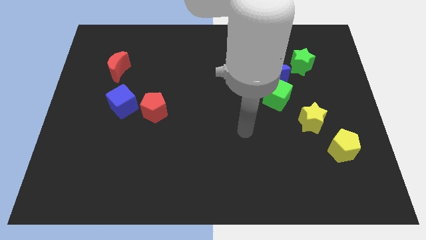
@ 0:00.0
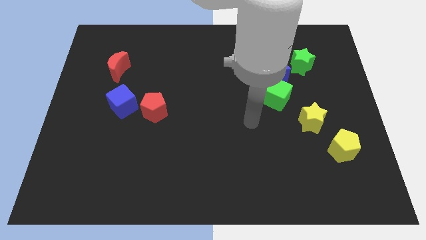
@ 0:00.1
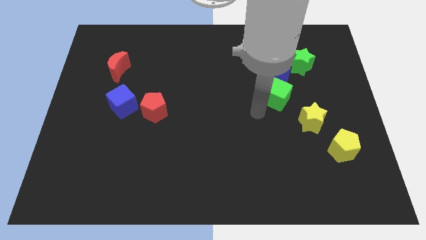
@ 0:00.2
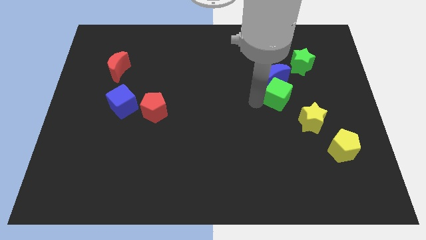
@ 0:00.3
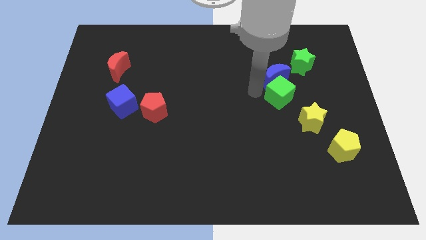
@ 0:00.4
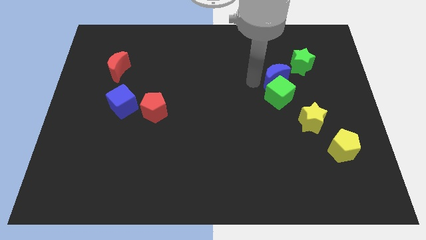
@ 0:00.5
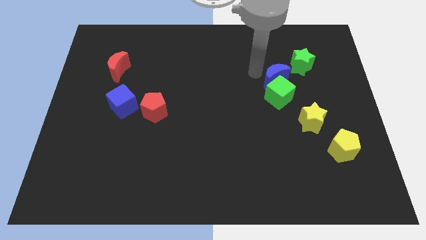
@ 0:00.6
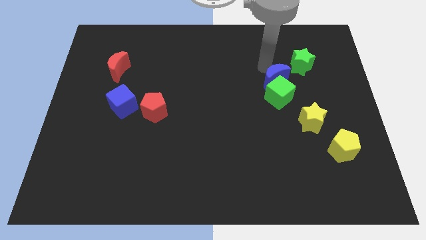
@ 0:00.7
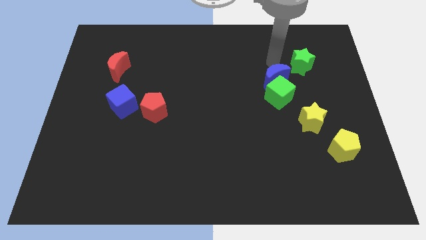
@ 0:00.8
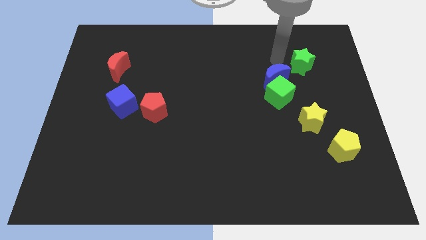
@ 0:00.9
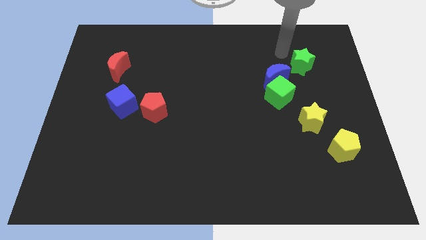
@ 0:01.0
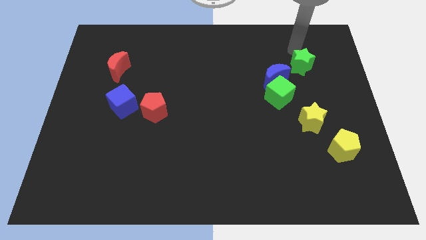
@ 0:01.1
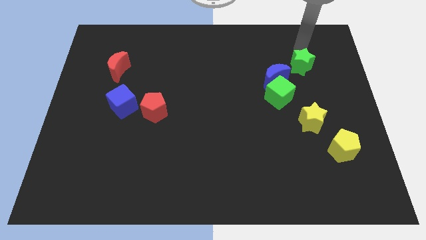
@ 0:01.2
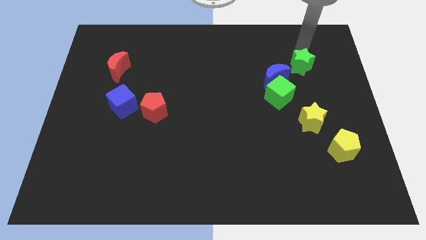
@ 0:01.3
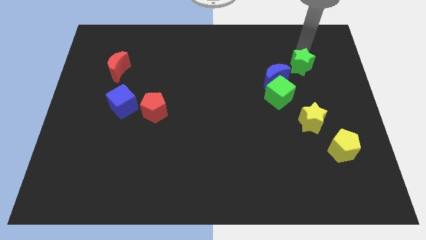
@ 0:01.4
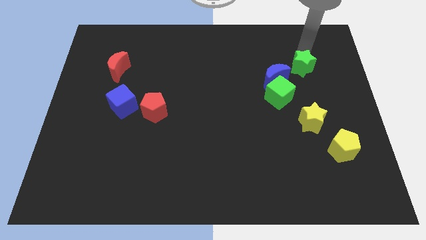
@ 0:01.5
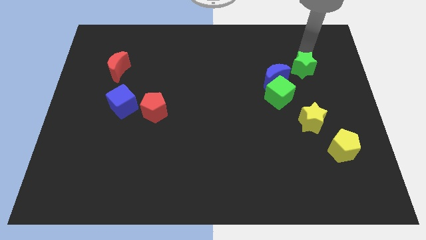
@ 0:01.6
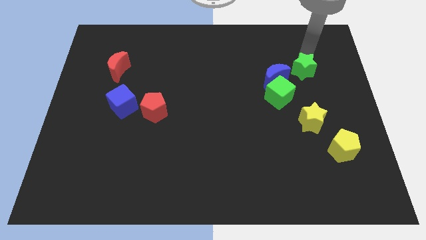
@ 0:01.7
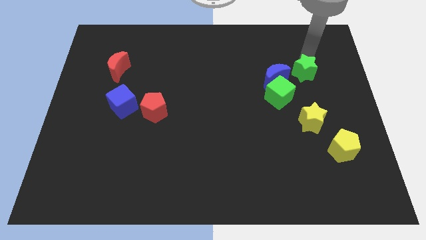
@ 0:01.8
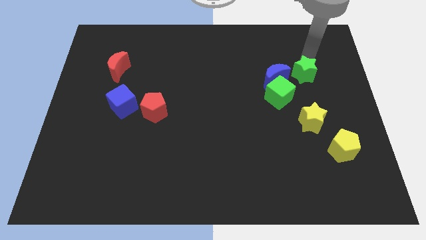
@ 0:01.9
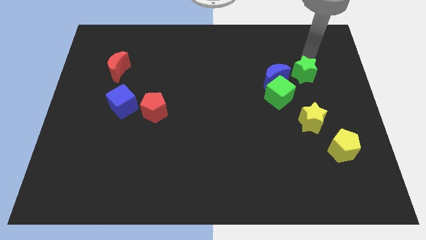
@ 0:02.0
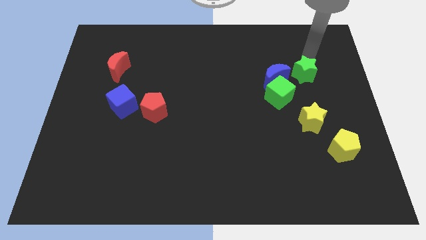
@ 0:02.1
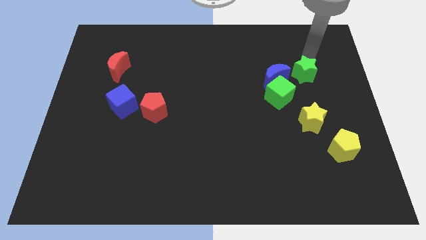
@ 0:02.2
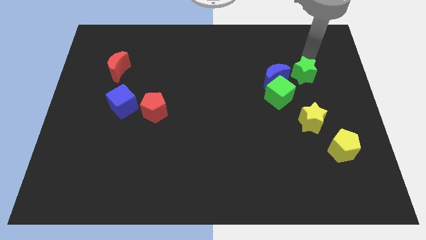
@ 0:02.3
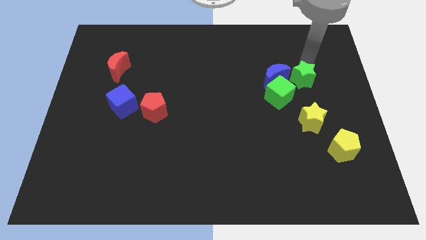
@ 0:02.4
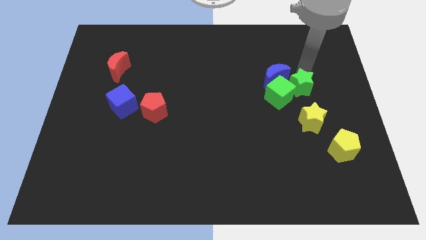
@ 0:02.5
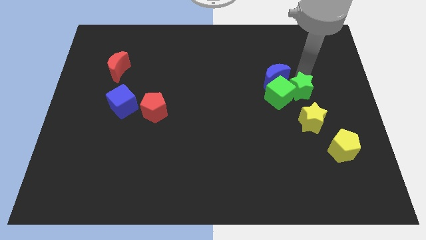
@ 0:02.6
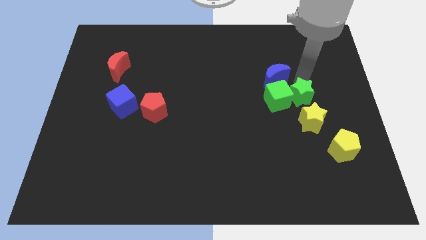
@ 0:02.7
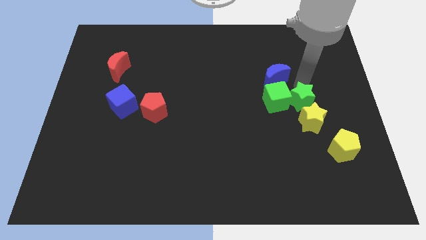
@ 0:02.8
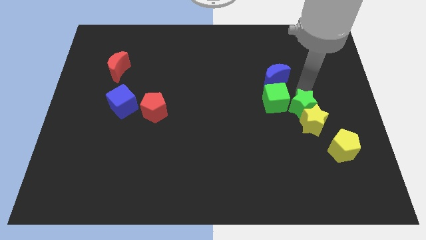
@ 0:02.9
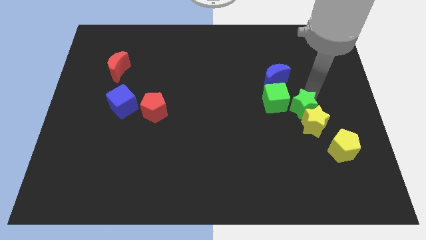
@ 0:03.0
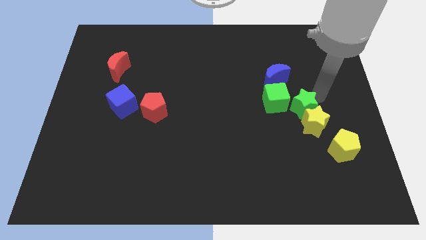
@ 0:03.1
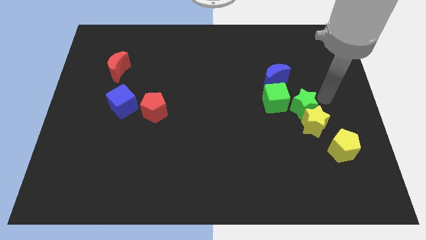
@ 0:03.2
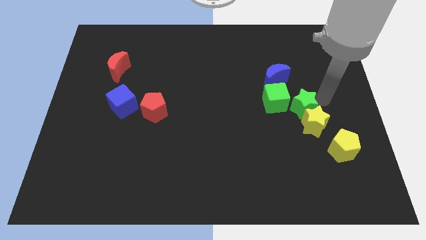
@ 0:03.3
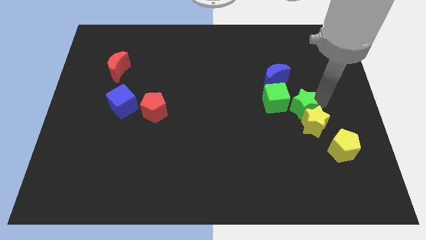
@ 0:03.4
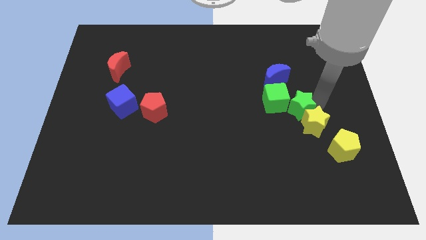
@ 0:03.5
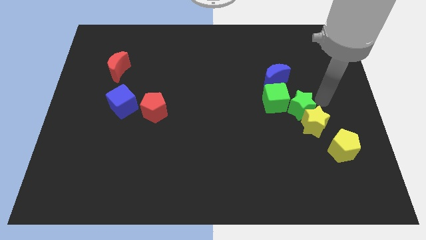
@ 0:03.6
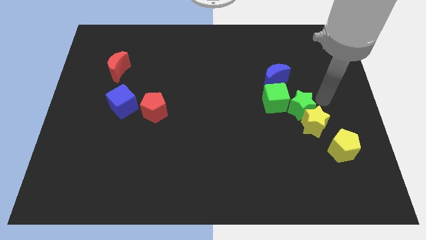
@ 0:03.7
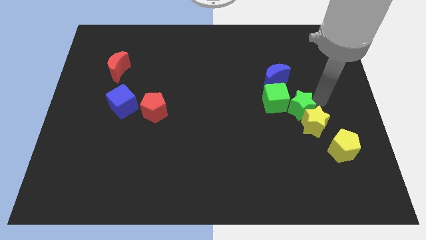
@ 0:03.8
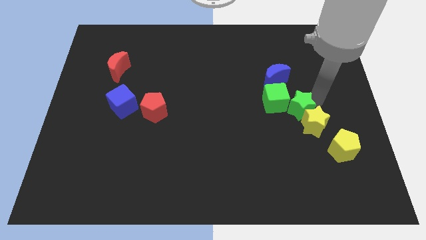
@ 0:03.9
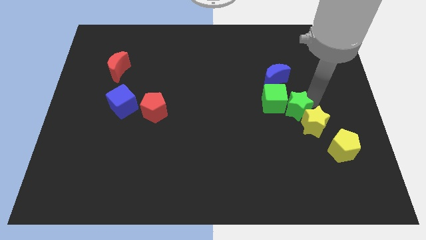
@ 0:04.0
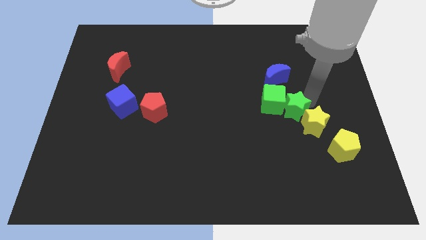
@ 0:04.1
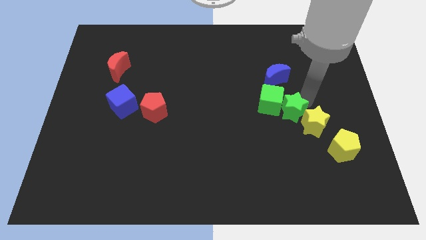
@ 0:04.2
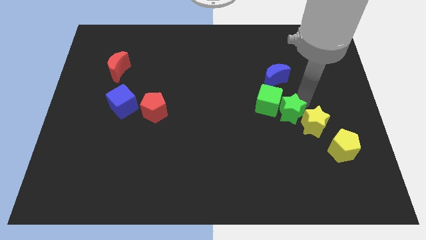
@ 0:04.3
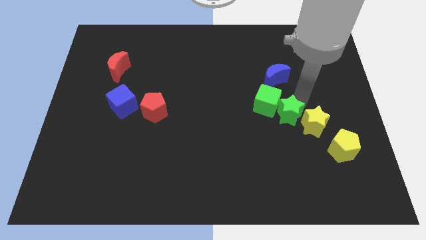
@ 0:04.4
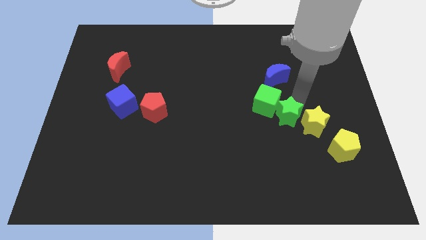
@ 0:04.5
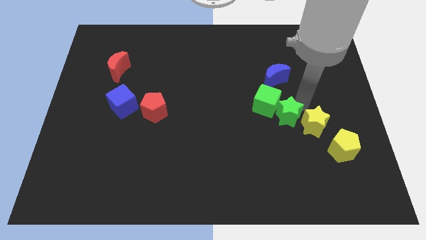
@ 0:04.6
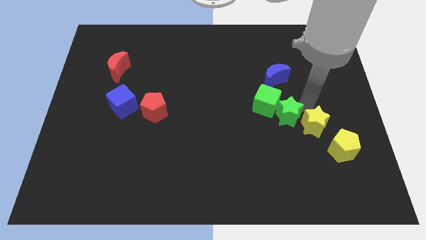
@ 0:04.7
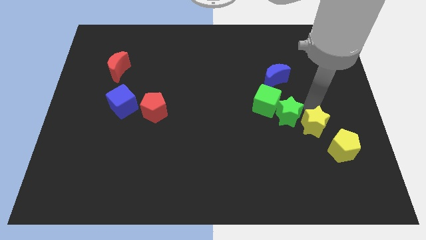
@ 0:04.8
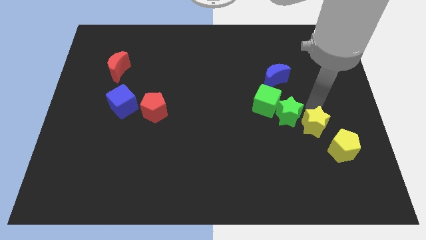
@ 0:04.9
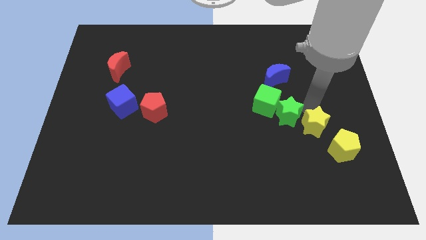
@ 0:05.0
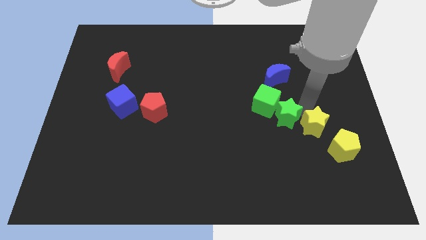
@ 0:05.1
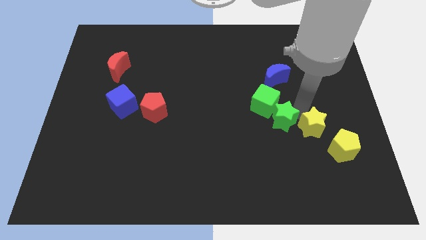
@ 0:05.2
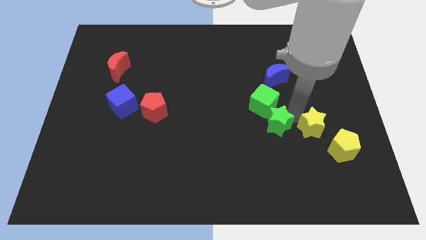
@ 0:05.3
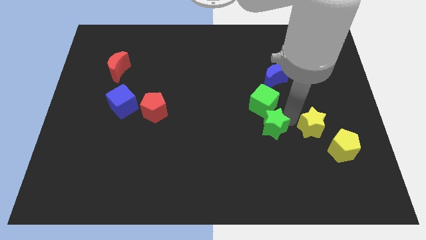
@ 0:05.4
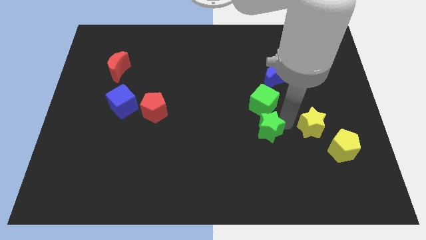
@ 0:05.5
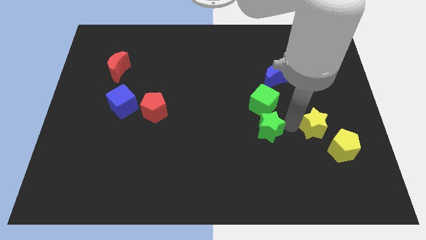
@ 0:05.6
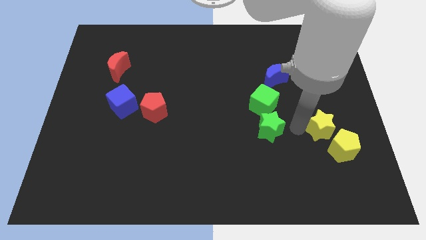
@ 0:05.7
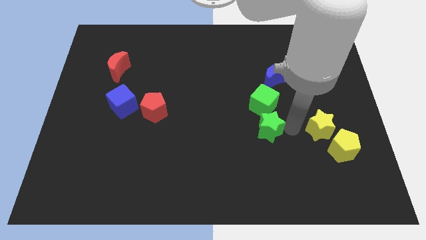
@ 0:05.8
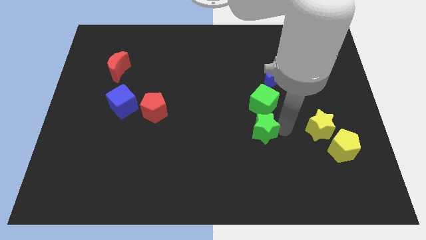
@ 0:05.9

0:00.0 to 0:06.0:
slide the green star down and then left

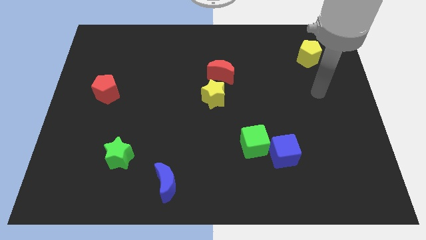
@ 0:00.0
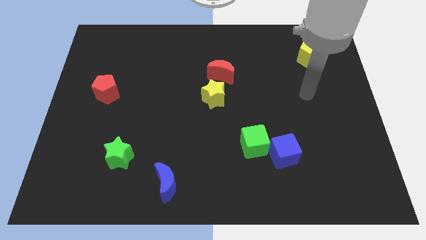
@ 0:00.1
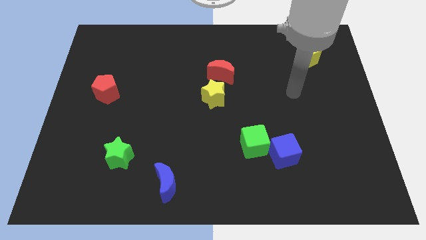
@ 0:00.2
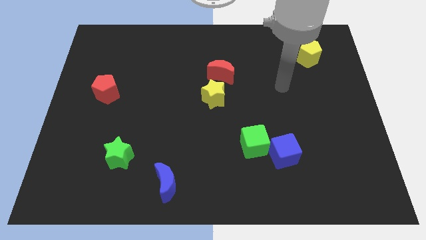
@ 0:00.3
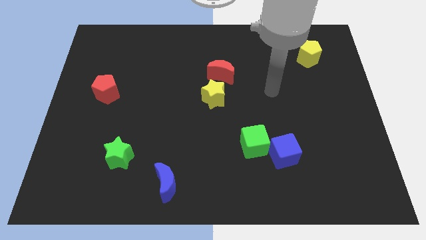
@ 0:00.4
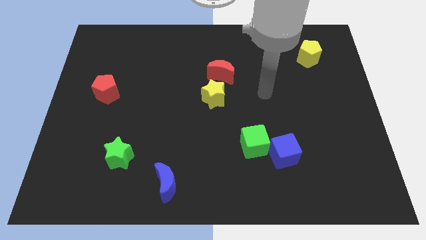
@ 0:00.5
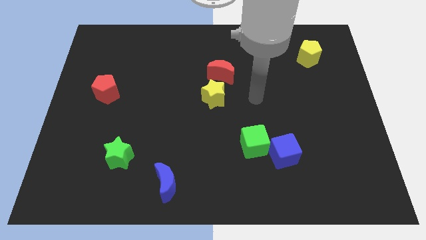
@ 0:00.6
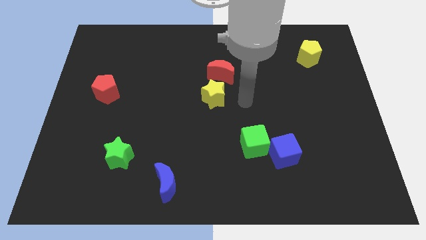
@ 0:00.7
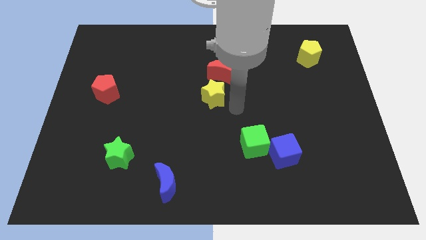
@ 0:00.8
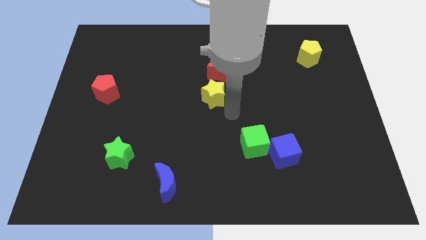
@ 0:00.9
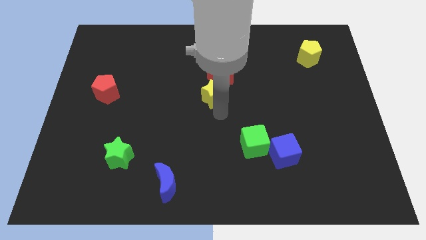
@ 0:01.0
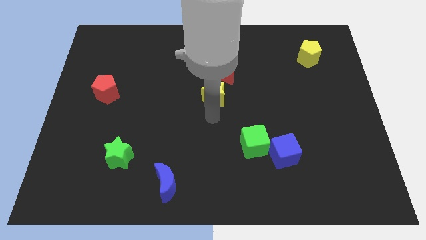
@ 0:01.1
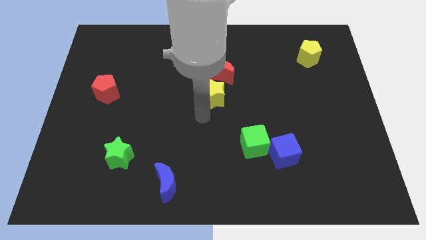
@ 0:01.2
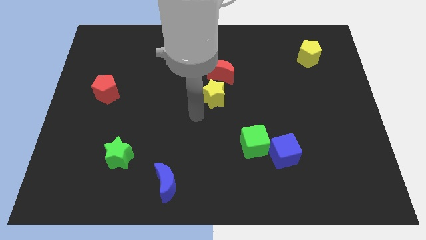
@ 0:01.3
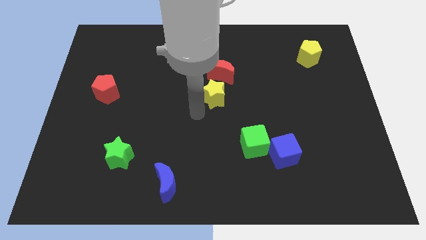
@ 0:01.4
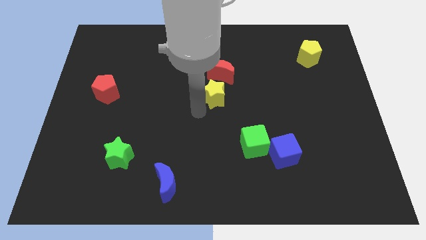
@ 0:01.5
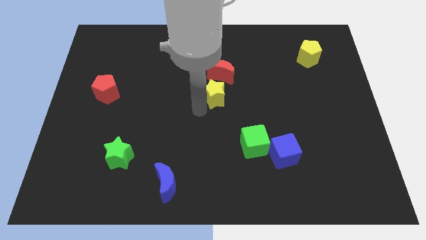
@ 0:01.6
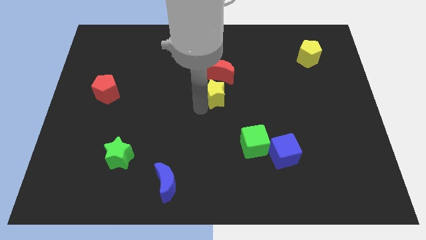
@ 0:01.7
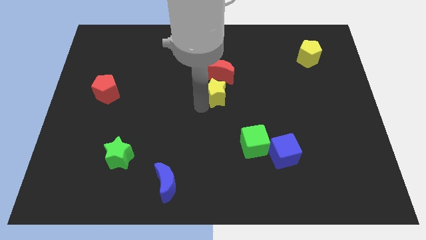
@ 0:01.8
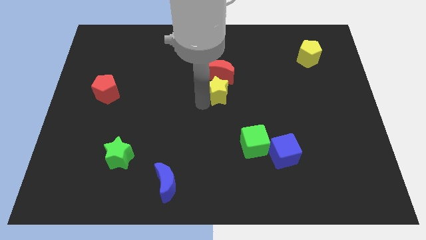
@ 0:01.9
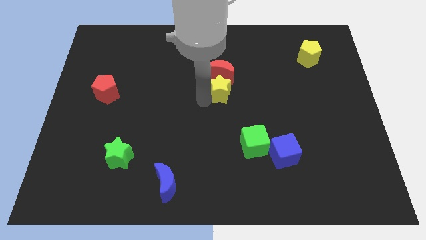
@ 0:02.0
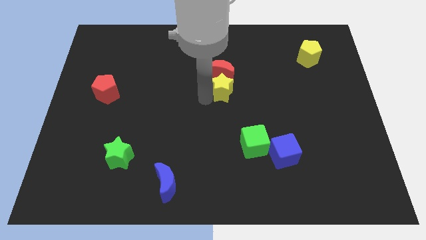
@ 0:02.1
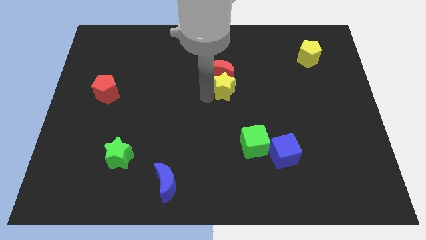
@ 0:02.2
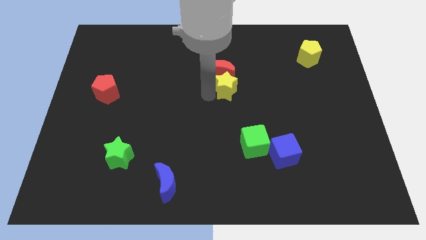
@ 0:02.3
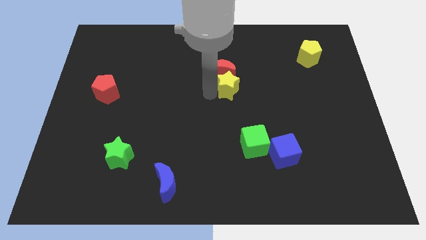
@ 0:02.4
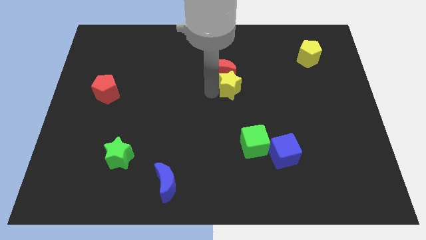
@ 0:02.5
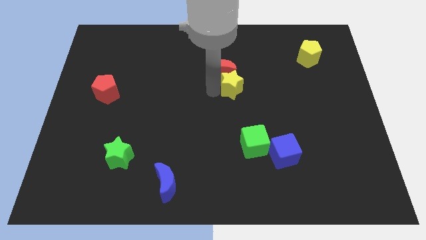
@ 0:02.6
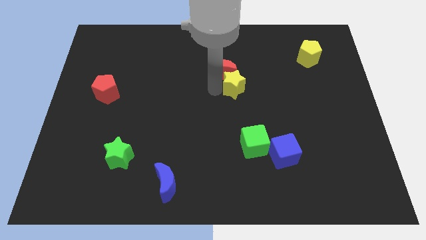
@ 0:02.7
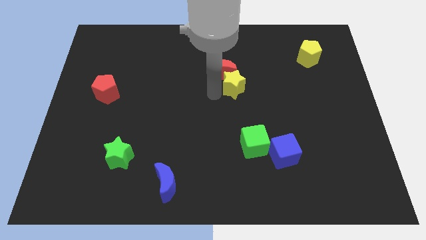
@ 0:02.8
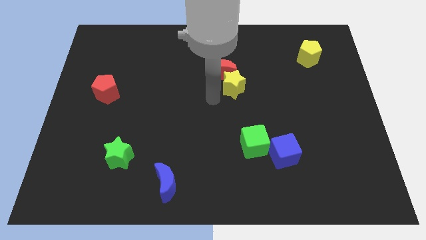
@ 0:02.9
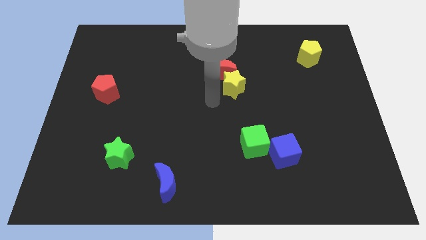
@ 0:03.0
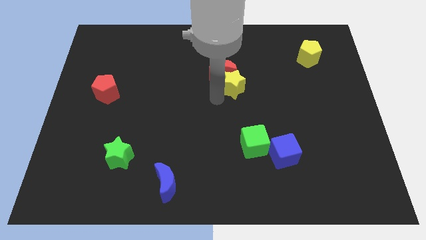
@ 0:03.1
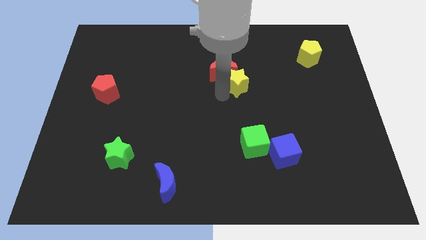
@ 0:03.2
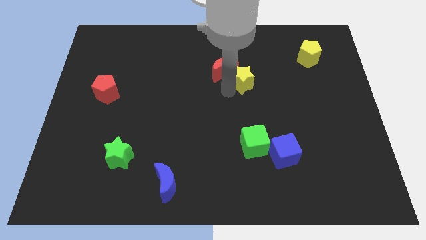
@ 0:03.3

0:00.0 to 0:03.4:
slide the yellow star upwards and then right a little
